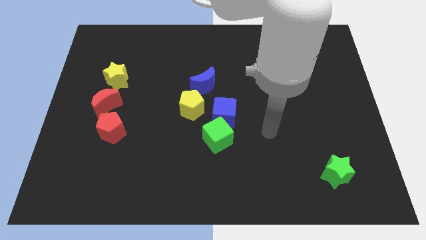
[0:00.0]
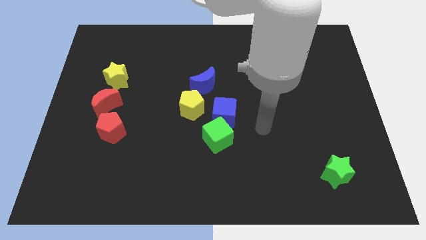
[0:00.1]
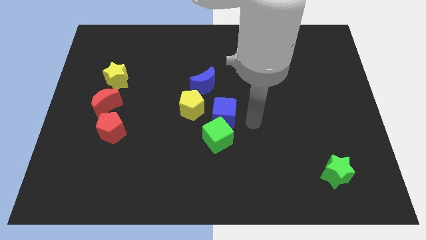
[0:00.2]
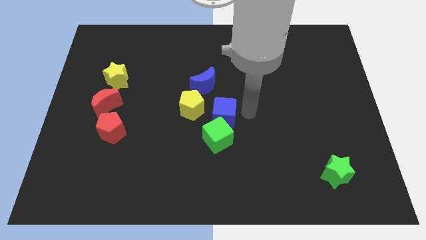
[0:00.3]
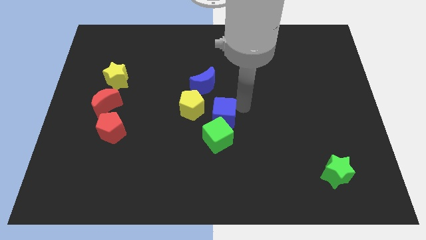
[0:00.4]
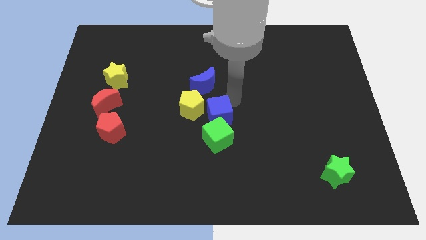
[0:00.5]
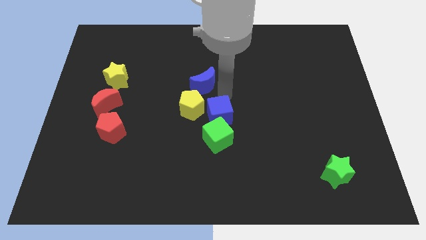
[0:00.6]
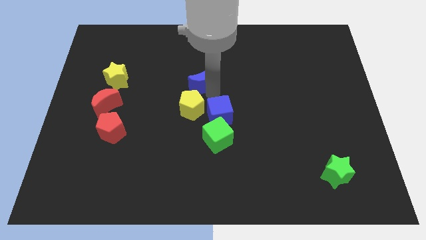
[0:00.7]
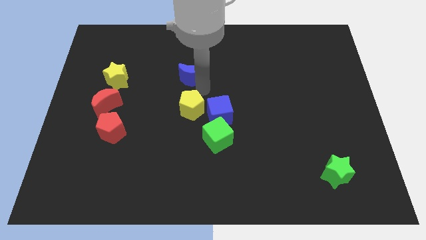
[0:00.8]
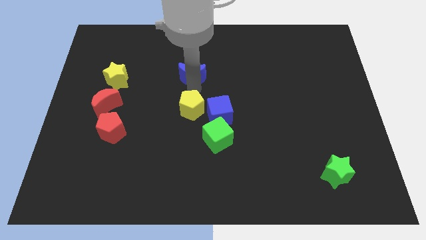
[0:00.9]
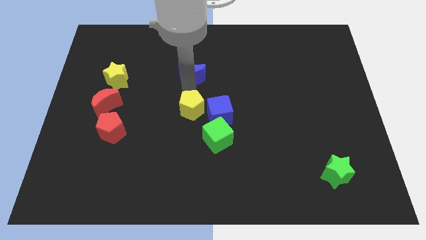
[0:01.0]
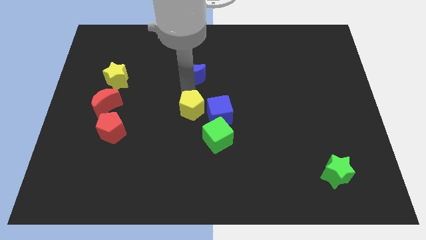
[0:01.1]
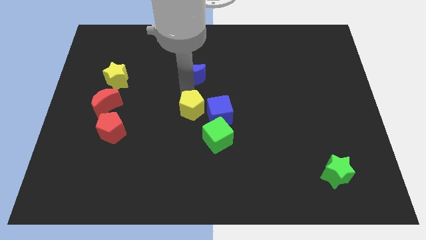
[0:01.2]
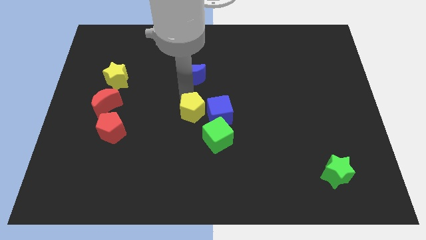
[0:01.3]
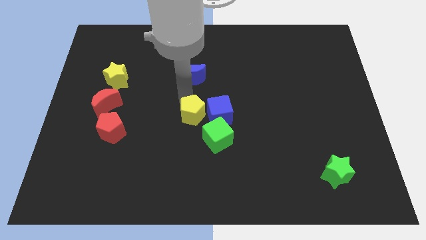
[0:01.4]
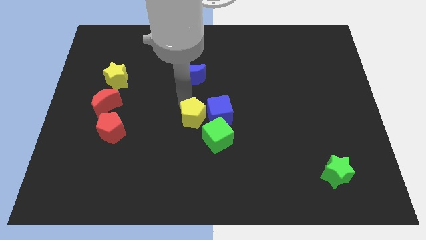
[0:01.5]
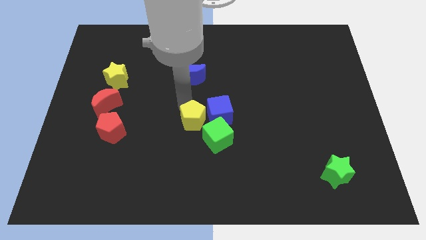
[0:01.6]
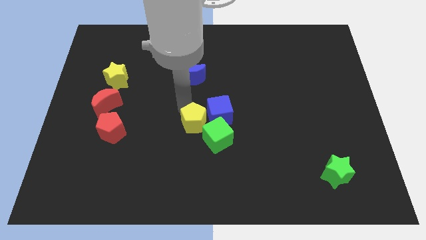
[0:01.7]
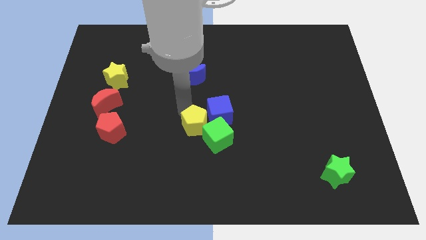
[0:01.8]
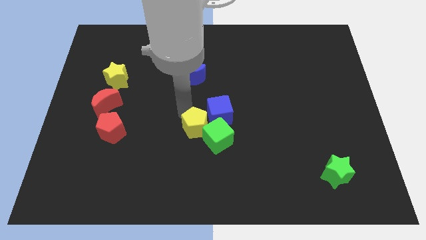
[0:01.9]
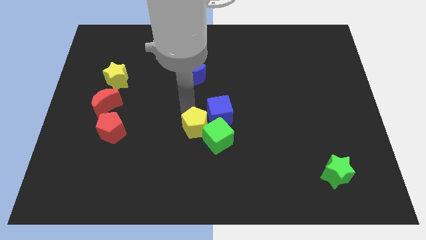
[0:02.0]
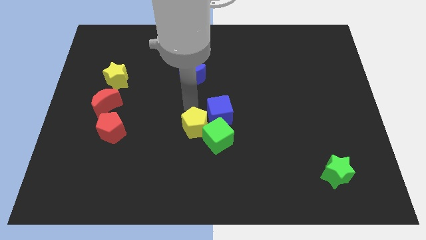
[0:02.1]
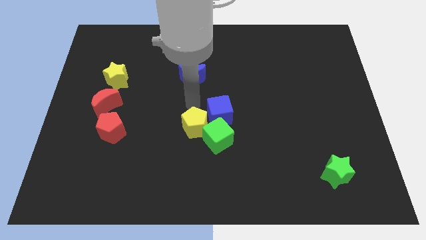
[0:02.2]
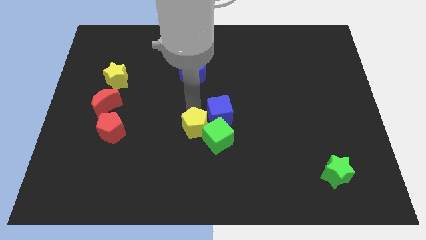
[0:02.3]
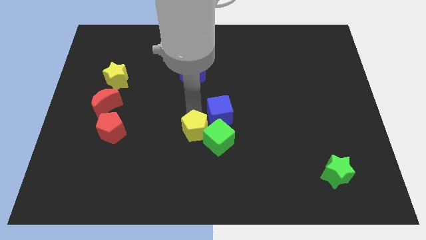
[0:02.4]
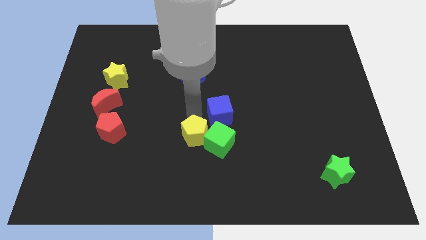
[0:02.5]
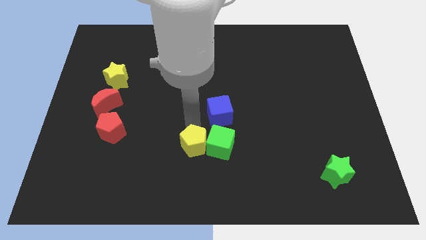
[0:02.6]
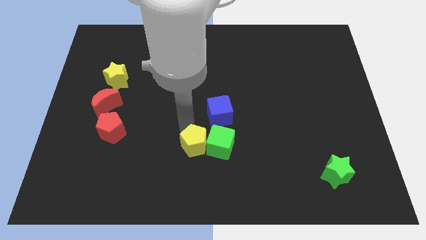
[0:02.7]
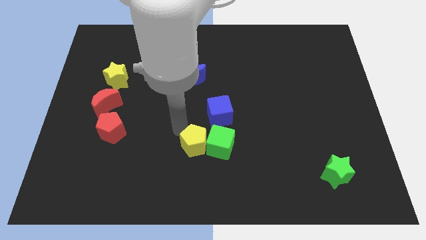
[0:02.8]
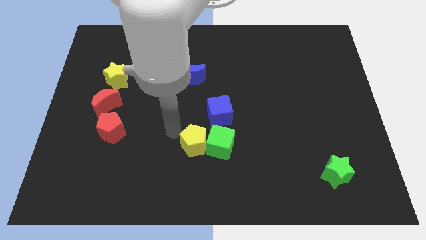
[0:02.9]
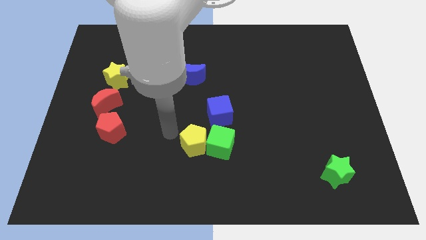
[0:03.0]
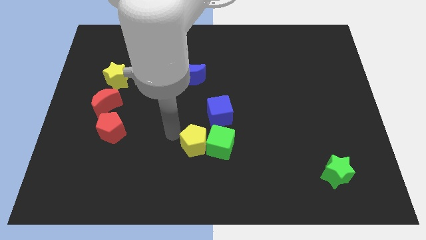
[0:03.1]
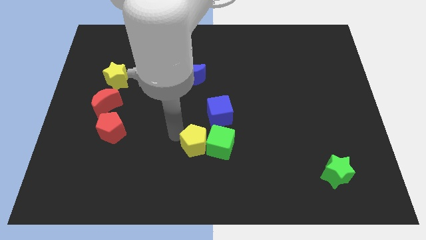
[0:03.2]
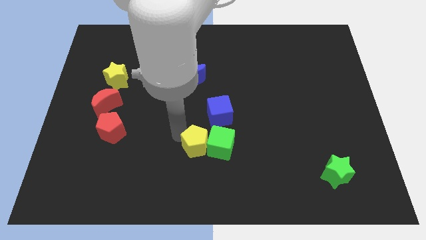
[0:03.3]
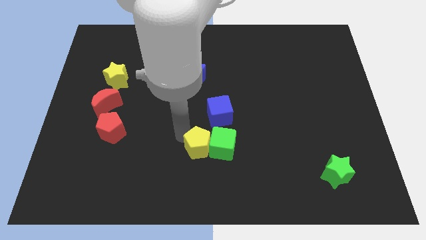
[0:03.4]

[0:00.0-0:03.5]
push the yellow pentagon down and right slightly

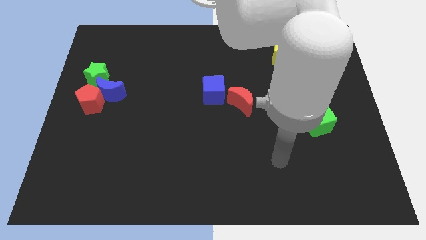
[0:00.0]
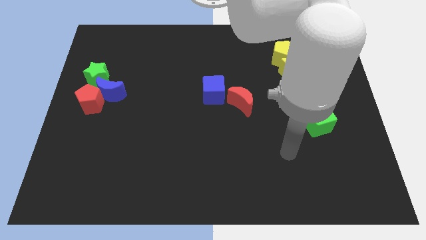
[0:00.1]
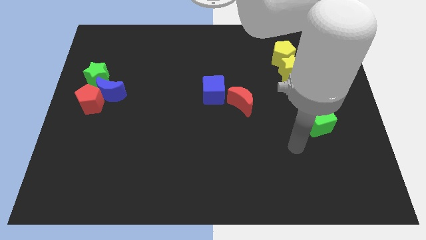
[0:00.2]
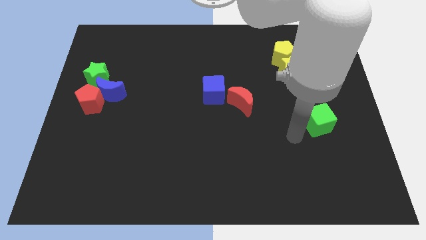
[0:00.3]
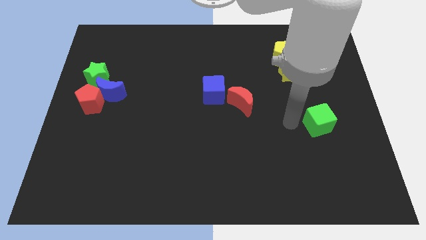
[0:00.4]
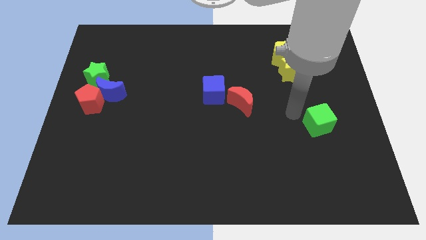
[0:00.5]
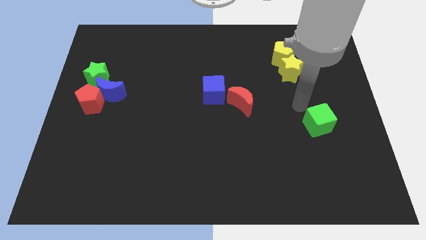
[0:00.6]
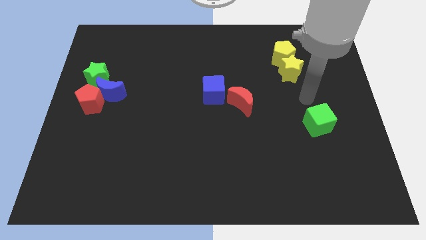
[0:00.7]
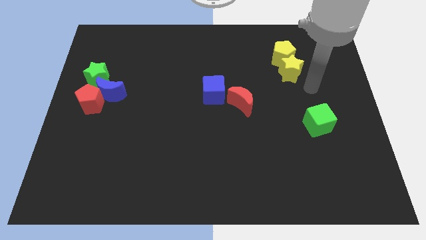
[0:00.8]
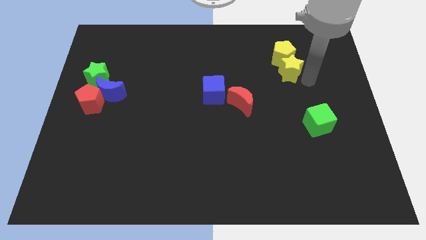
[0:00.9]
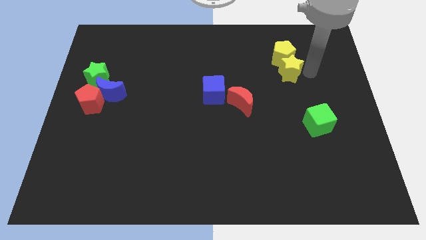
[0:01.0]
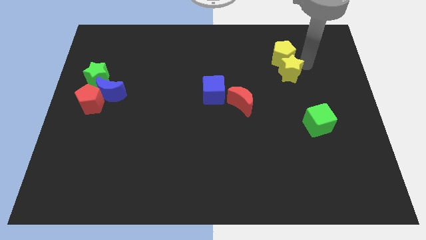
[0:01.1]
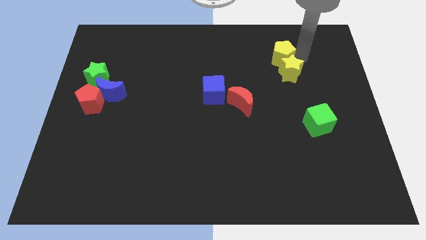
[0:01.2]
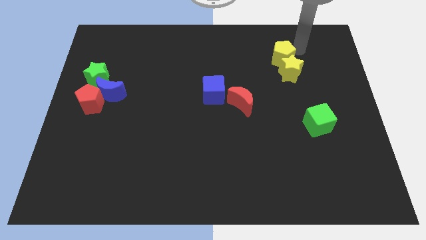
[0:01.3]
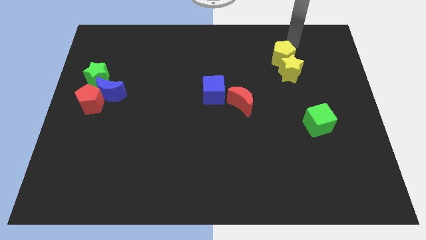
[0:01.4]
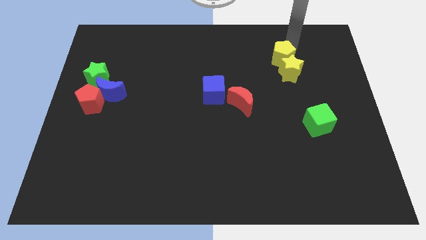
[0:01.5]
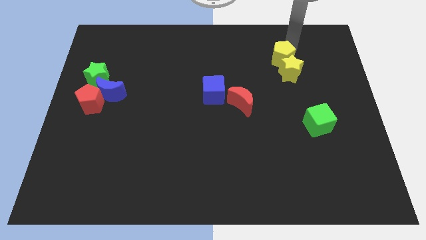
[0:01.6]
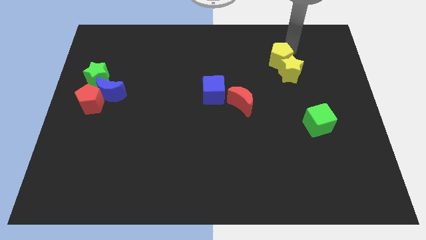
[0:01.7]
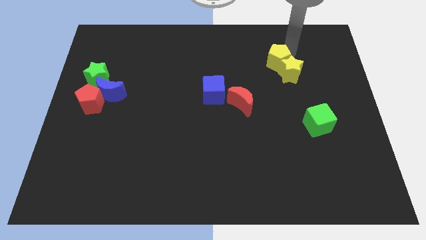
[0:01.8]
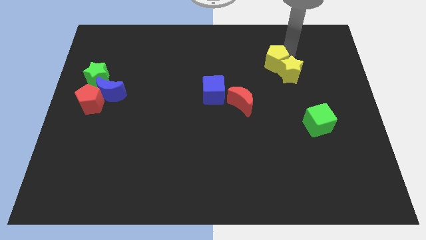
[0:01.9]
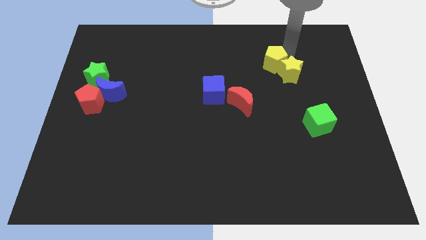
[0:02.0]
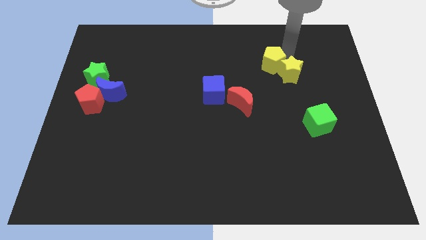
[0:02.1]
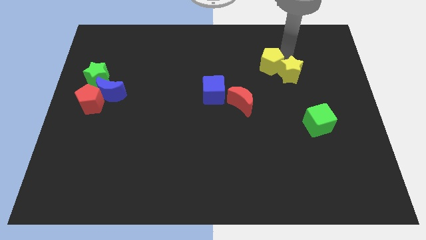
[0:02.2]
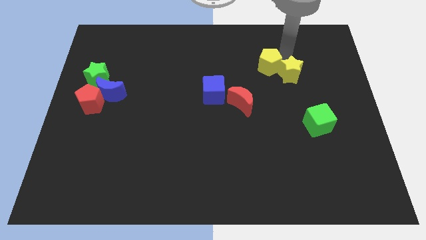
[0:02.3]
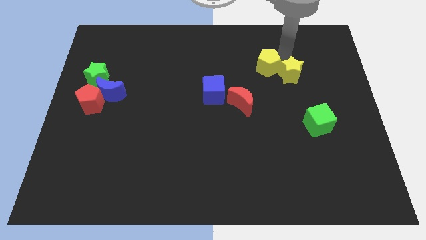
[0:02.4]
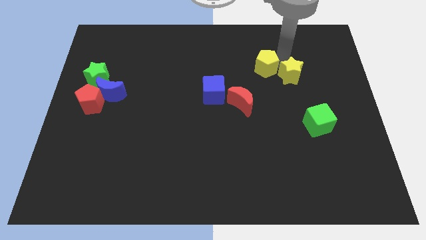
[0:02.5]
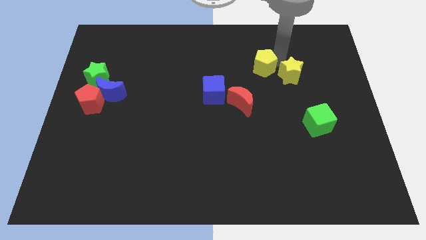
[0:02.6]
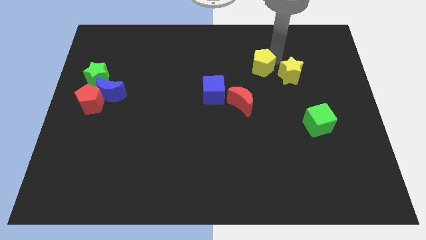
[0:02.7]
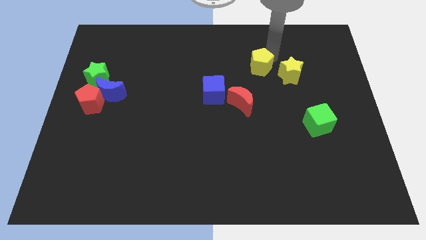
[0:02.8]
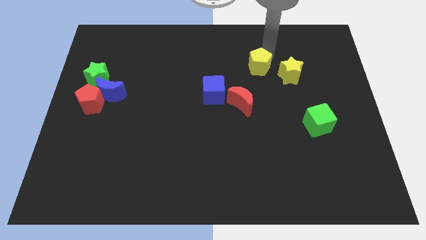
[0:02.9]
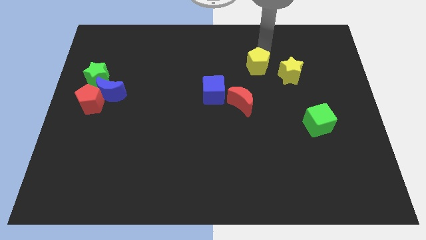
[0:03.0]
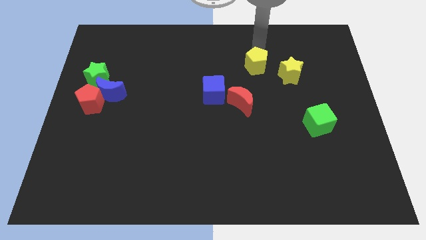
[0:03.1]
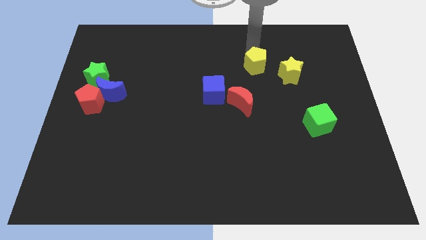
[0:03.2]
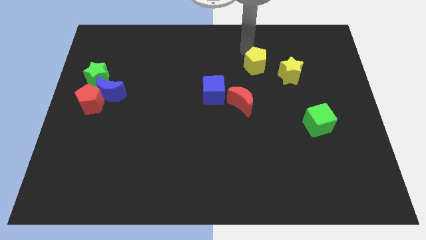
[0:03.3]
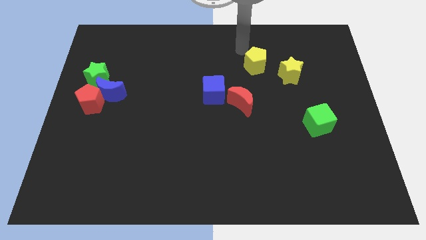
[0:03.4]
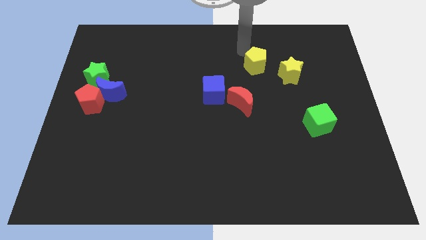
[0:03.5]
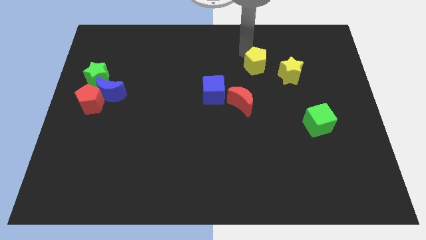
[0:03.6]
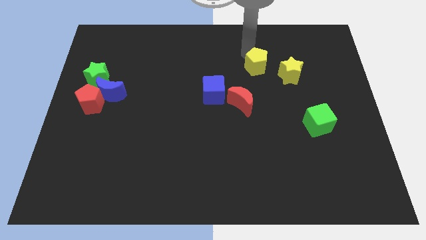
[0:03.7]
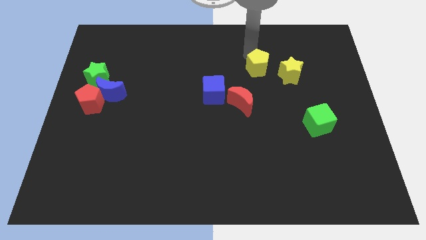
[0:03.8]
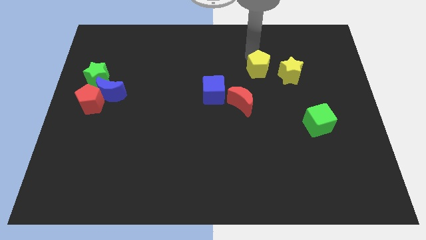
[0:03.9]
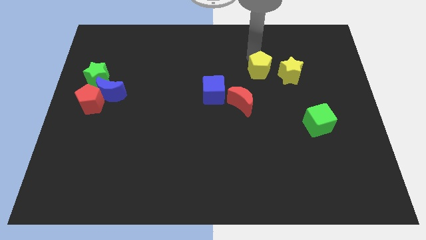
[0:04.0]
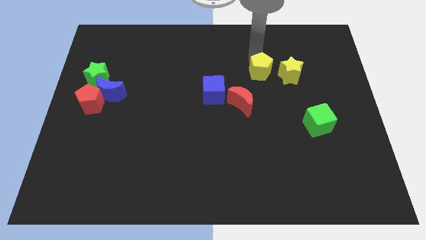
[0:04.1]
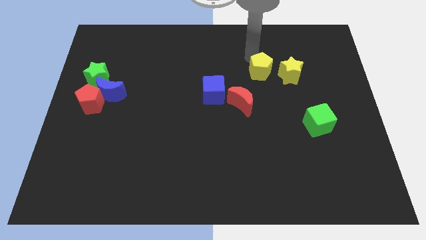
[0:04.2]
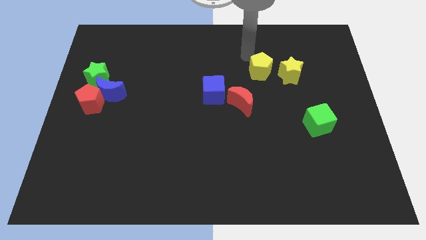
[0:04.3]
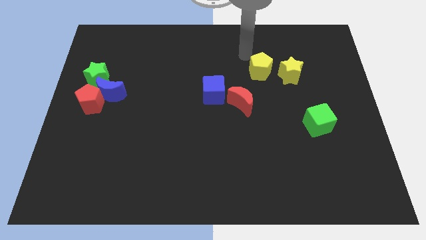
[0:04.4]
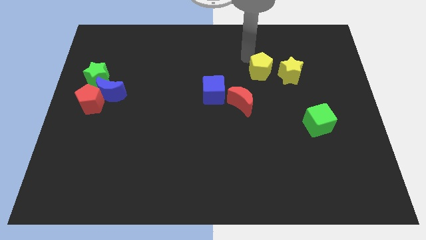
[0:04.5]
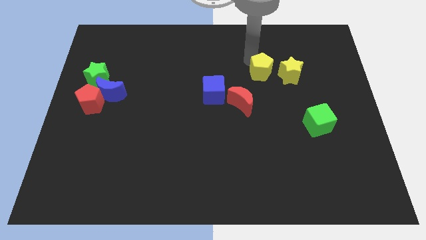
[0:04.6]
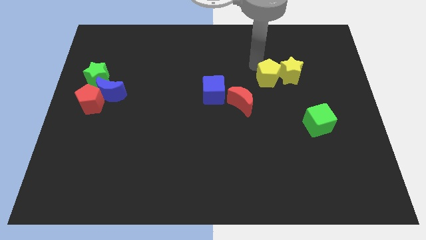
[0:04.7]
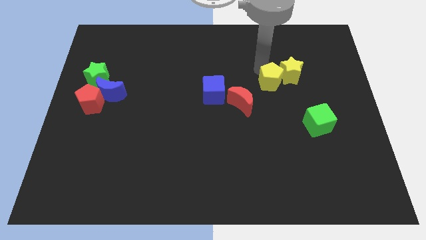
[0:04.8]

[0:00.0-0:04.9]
slide the yellow pentagon a little bit downwards
